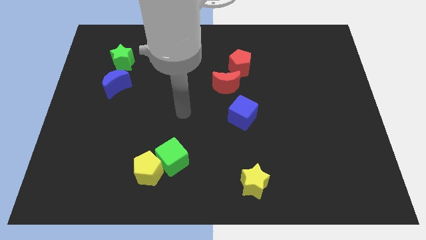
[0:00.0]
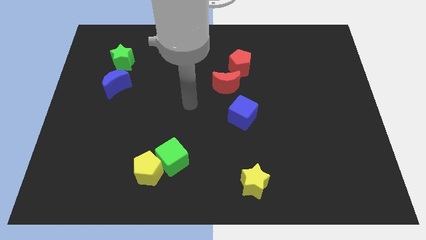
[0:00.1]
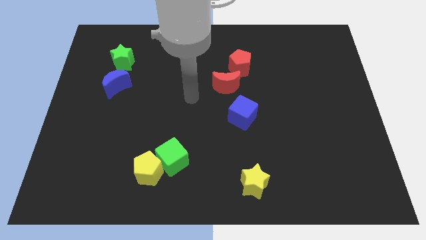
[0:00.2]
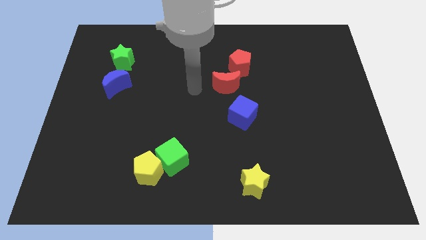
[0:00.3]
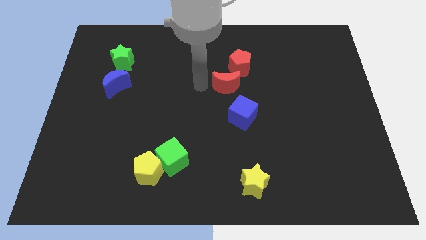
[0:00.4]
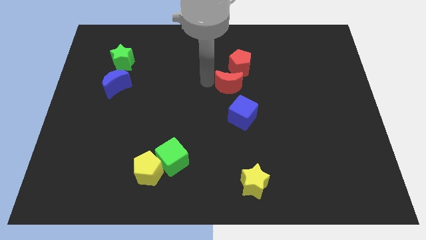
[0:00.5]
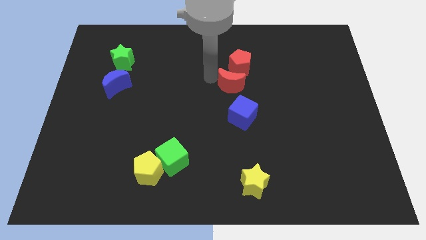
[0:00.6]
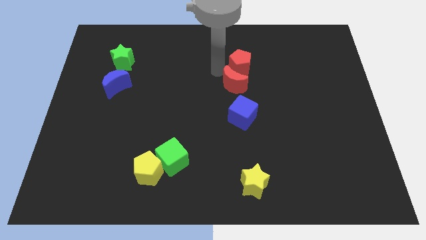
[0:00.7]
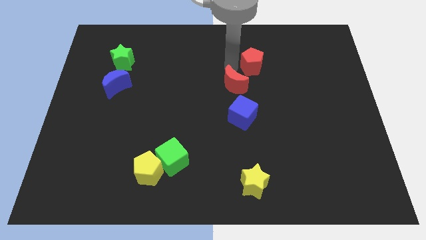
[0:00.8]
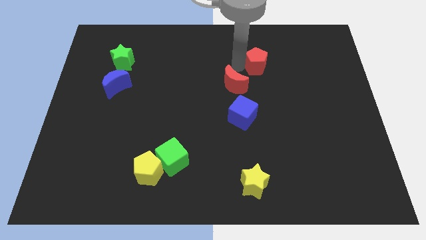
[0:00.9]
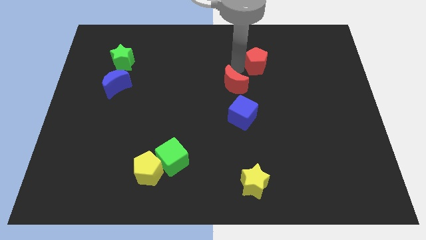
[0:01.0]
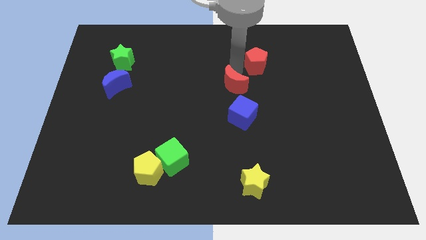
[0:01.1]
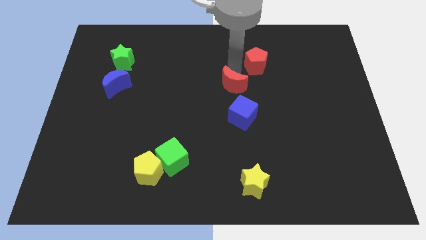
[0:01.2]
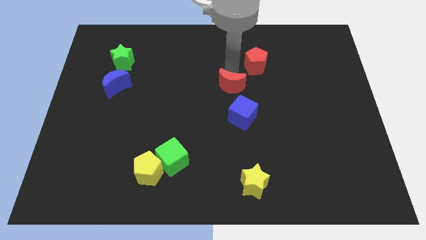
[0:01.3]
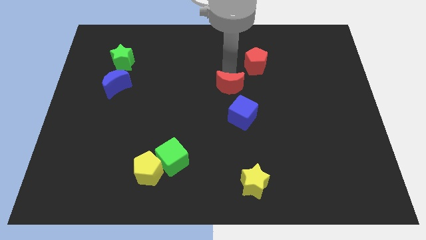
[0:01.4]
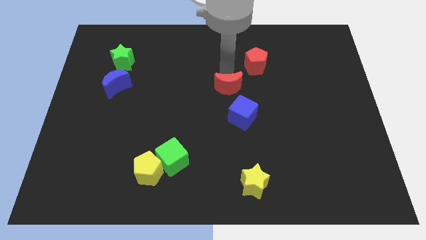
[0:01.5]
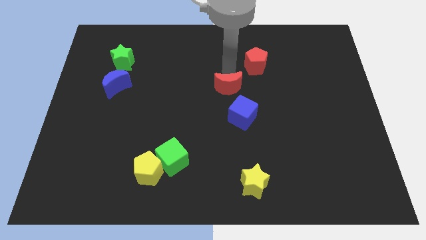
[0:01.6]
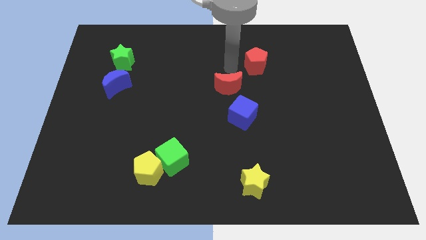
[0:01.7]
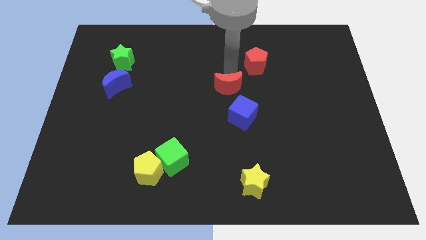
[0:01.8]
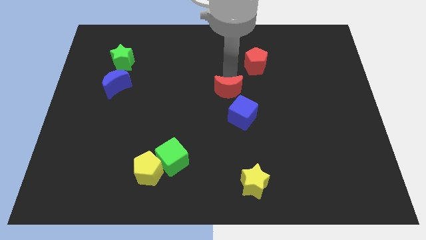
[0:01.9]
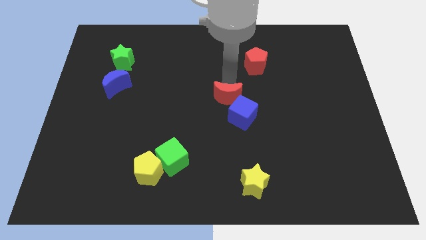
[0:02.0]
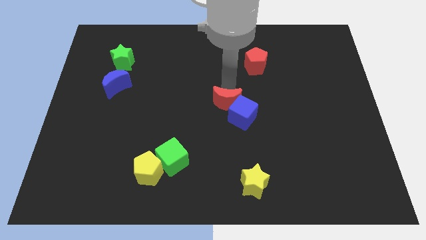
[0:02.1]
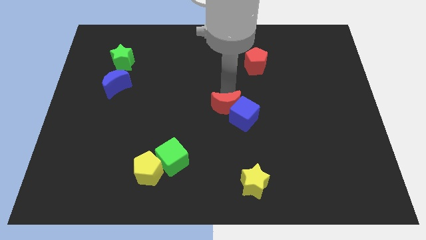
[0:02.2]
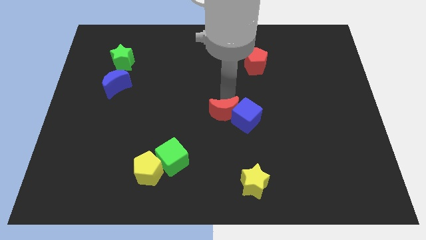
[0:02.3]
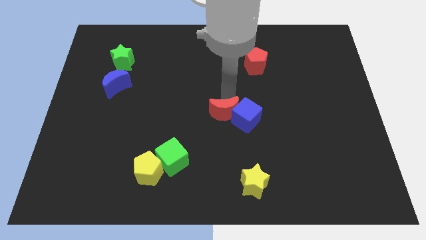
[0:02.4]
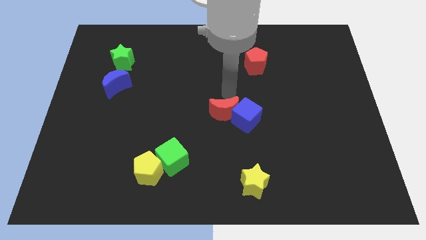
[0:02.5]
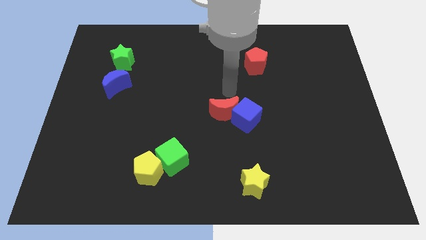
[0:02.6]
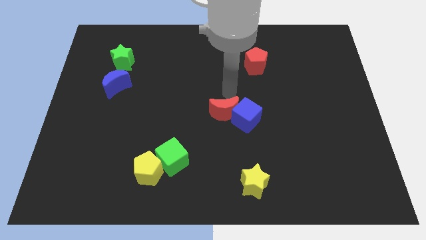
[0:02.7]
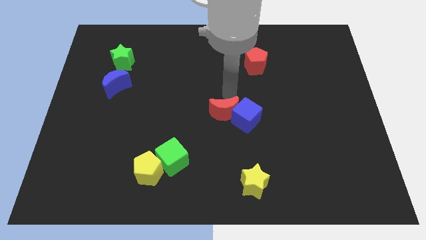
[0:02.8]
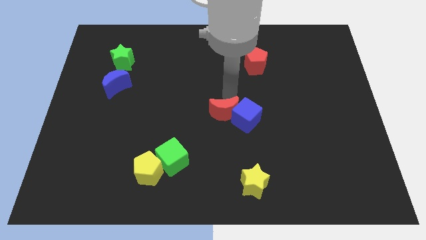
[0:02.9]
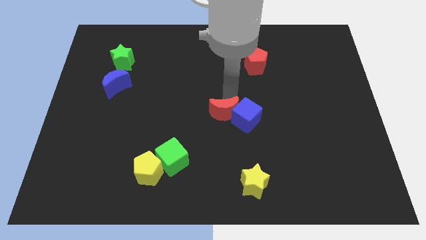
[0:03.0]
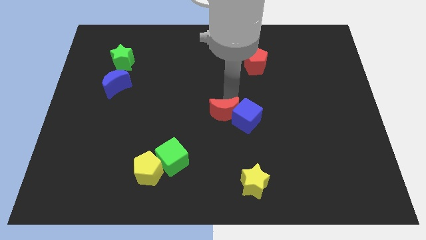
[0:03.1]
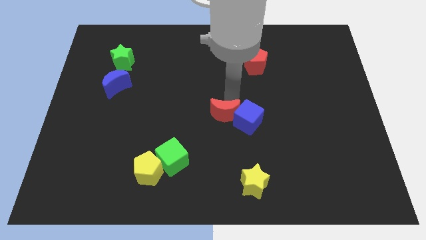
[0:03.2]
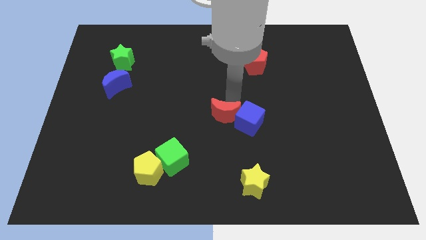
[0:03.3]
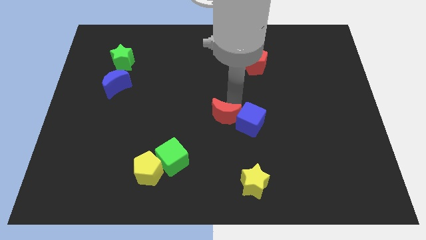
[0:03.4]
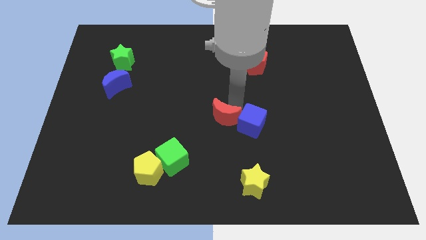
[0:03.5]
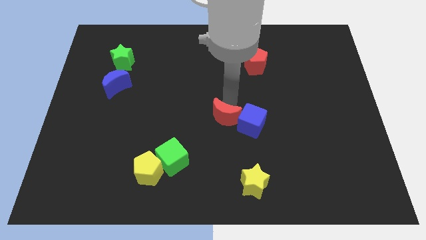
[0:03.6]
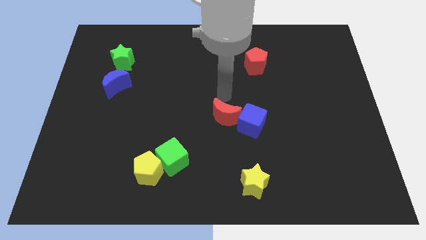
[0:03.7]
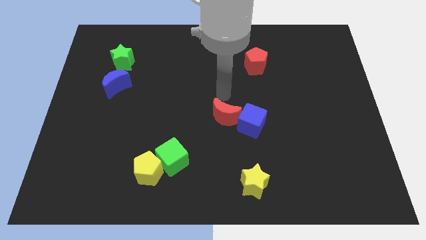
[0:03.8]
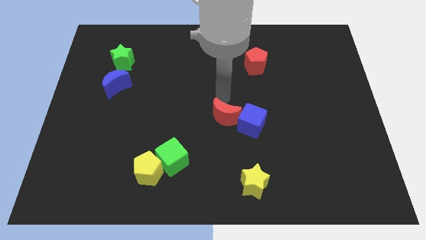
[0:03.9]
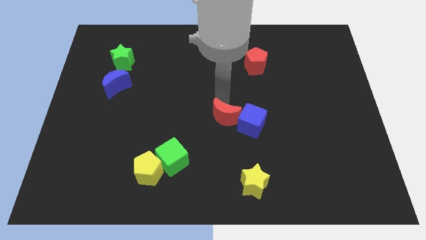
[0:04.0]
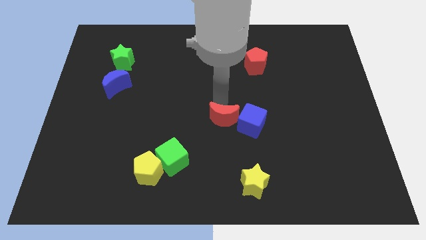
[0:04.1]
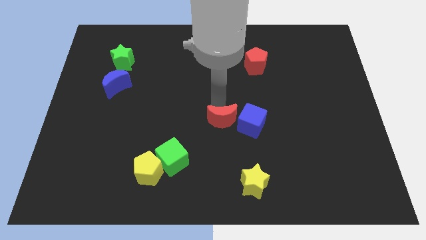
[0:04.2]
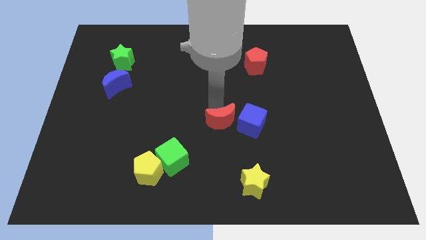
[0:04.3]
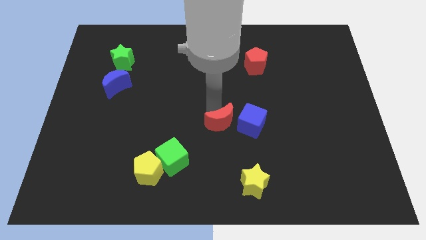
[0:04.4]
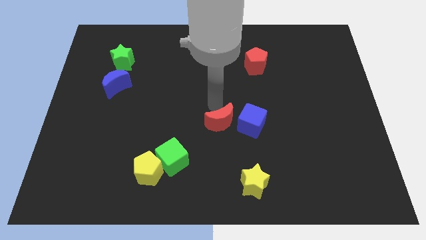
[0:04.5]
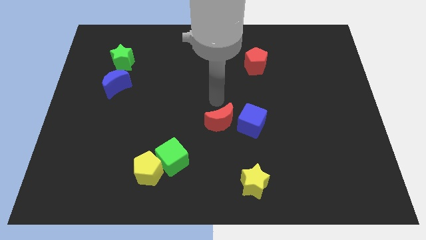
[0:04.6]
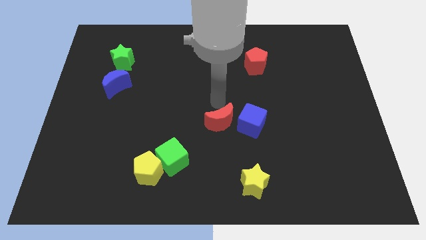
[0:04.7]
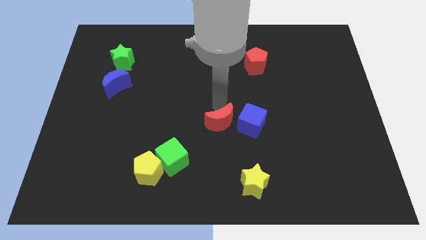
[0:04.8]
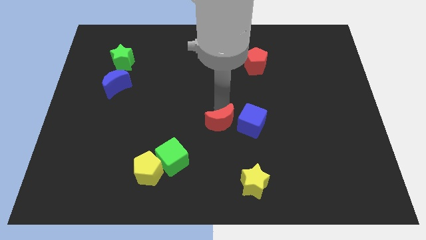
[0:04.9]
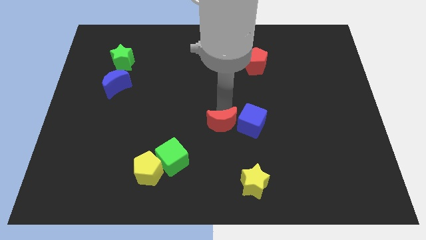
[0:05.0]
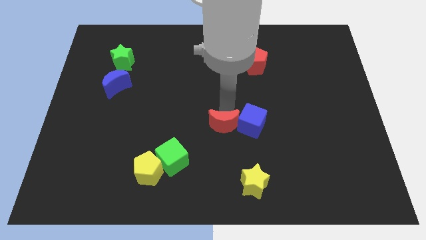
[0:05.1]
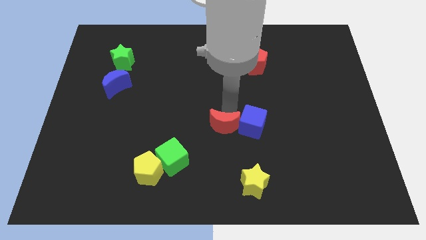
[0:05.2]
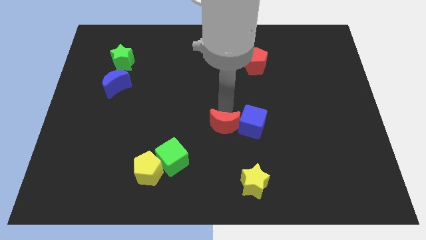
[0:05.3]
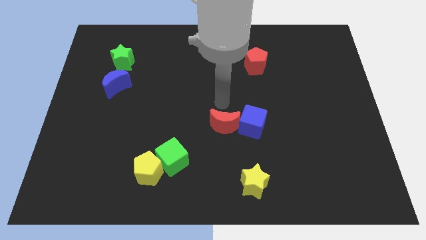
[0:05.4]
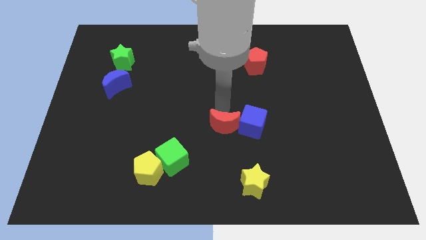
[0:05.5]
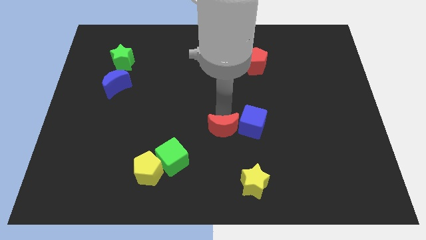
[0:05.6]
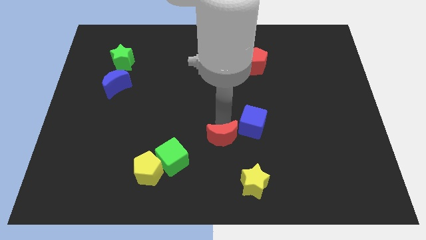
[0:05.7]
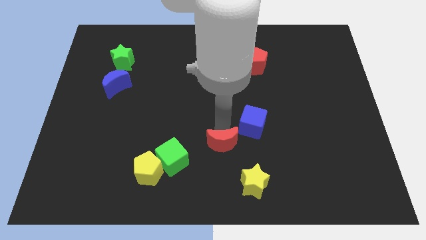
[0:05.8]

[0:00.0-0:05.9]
put the red moon diagonally up and to the left of the yellow star

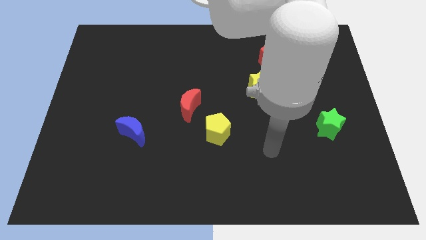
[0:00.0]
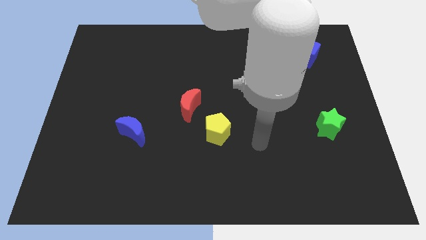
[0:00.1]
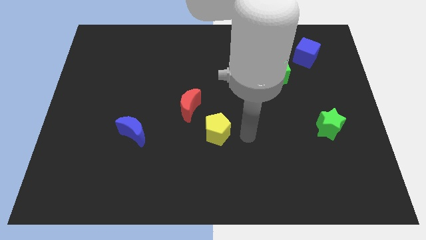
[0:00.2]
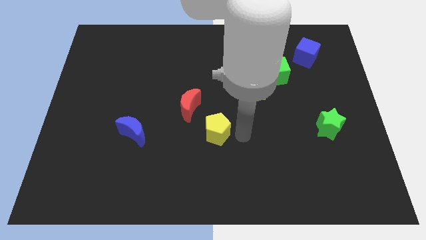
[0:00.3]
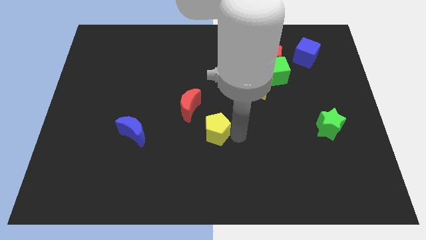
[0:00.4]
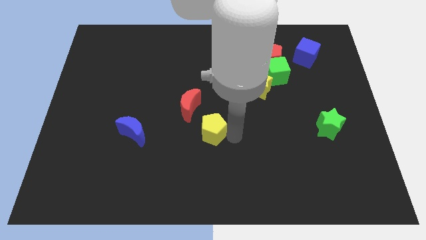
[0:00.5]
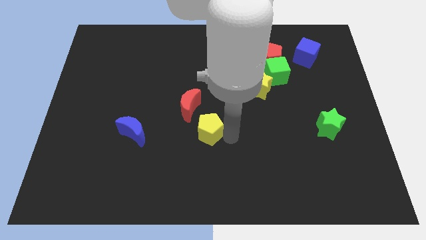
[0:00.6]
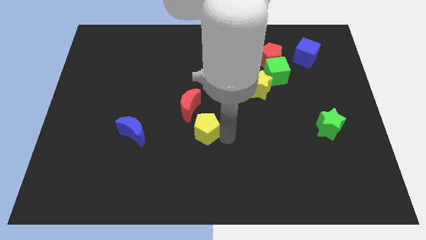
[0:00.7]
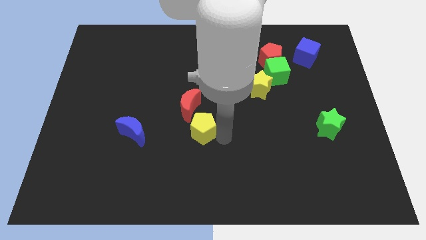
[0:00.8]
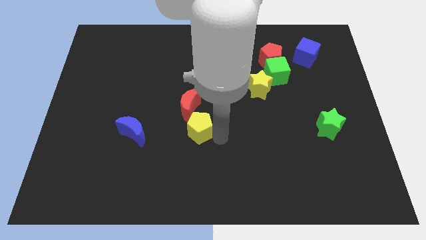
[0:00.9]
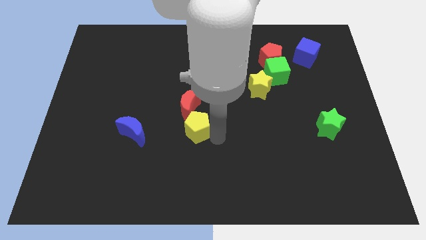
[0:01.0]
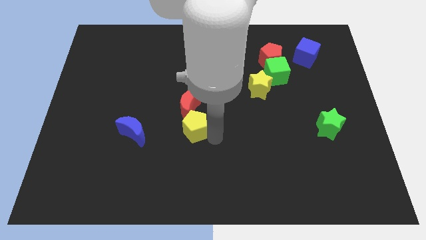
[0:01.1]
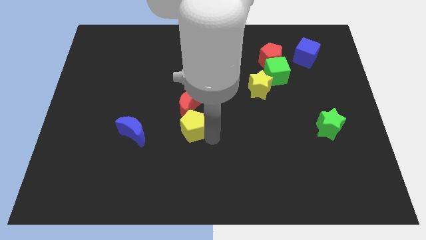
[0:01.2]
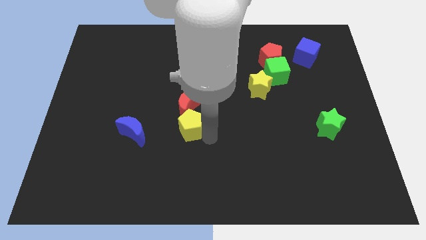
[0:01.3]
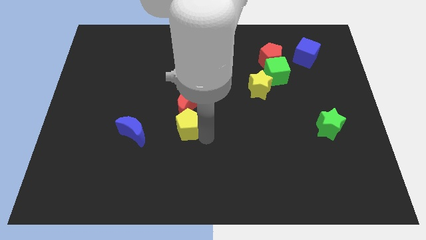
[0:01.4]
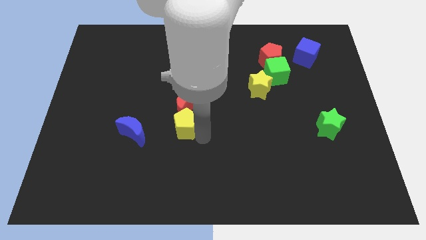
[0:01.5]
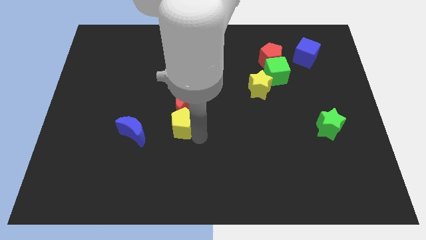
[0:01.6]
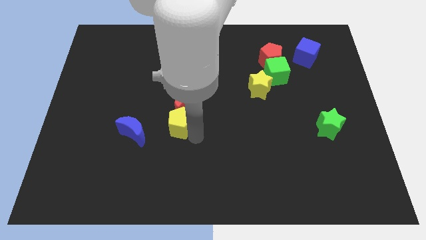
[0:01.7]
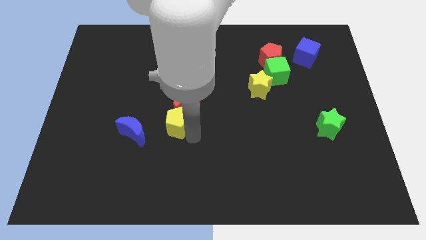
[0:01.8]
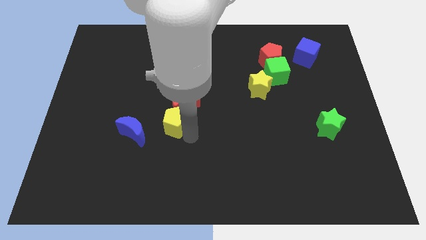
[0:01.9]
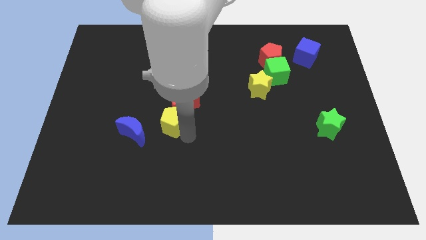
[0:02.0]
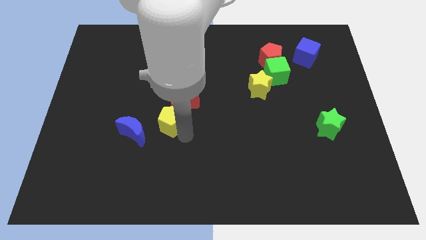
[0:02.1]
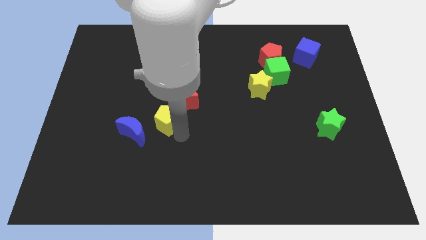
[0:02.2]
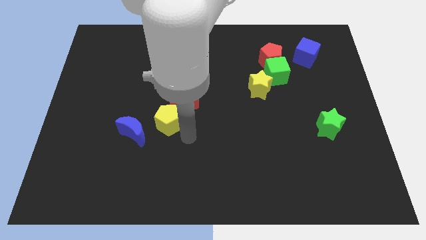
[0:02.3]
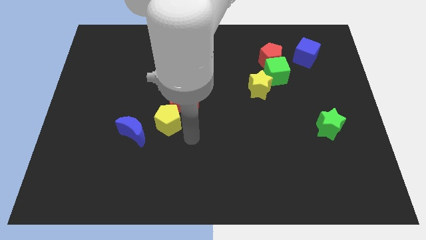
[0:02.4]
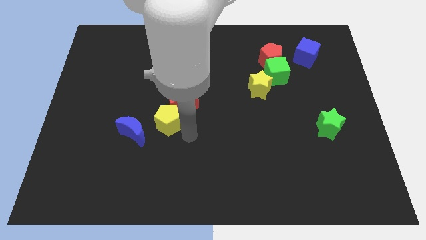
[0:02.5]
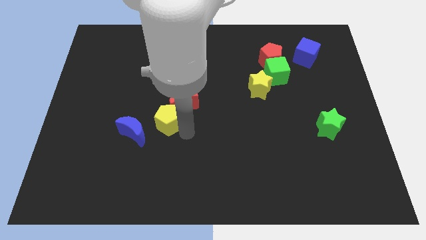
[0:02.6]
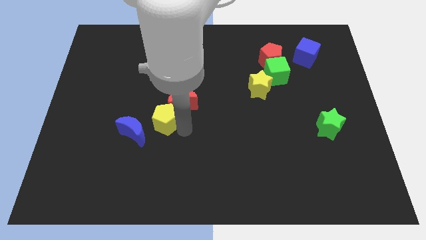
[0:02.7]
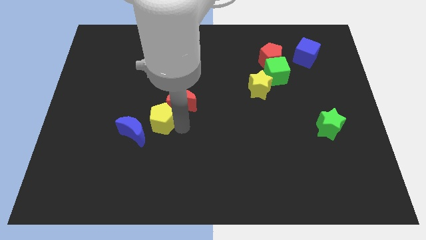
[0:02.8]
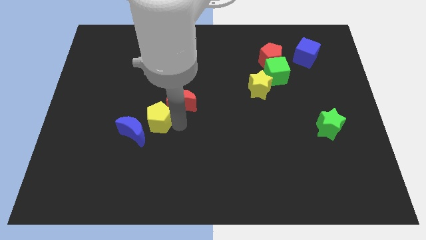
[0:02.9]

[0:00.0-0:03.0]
push the yellow pentagon to the left side of the red moon
